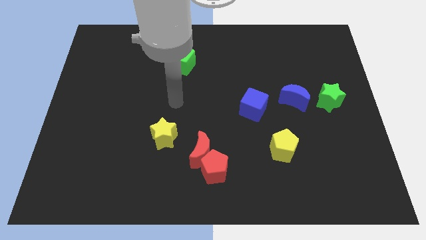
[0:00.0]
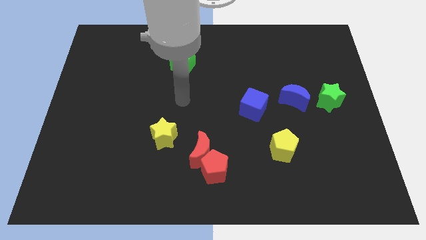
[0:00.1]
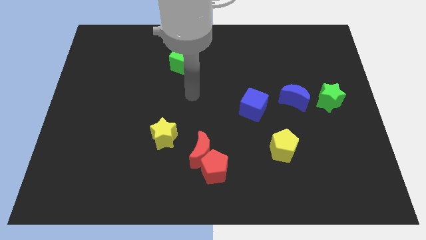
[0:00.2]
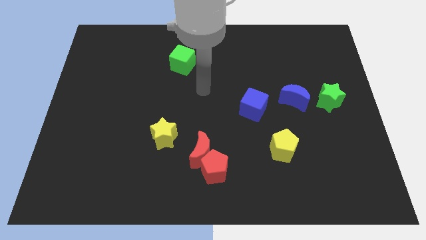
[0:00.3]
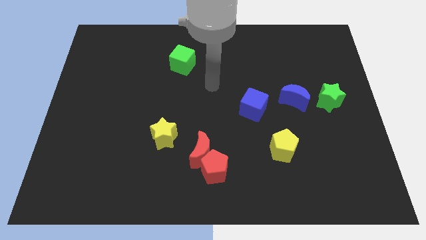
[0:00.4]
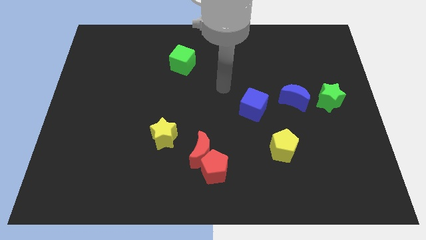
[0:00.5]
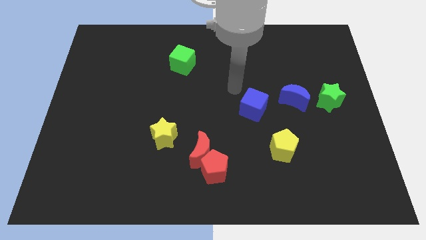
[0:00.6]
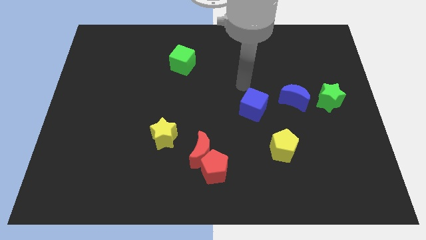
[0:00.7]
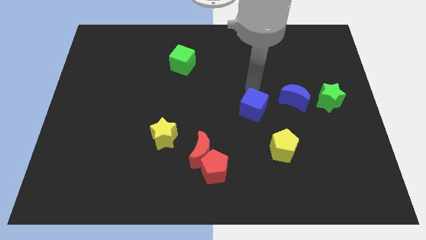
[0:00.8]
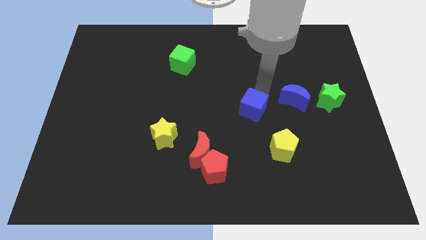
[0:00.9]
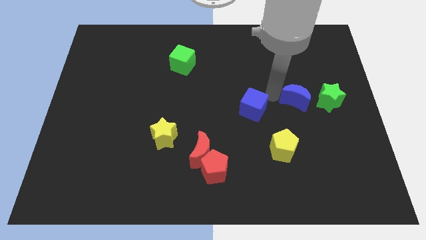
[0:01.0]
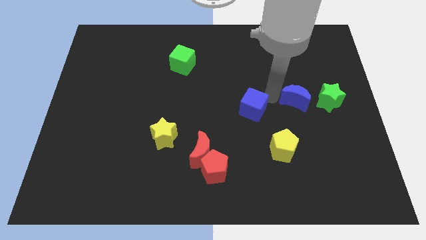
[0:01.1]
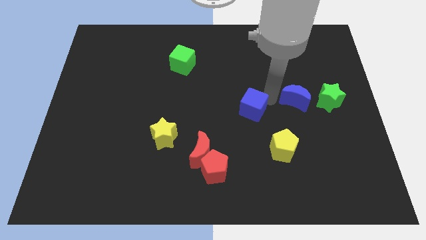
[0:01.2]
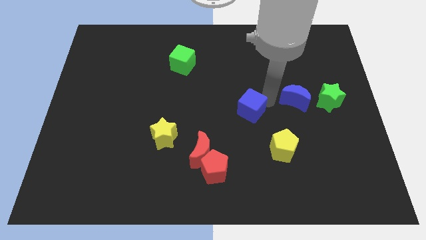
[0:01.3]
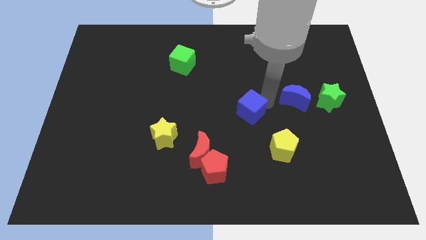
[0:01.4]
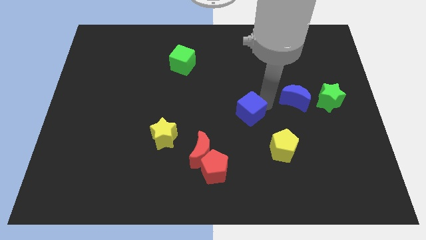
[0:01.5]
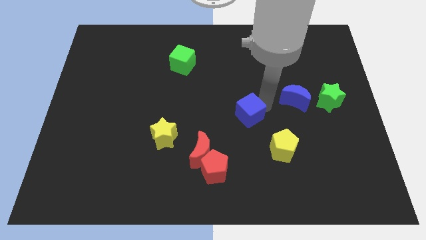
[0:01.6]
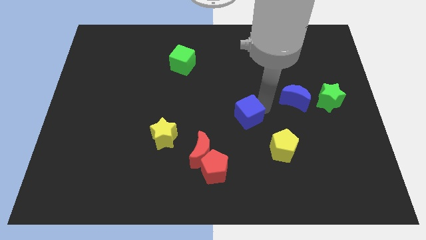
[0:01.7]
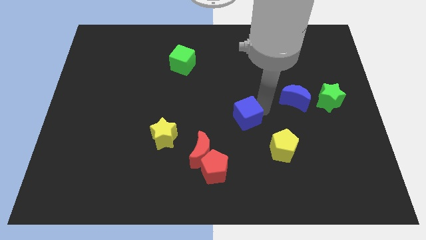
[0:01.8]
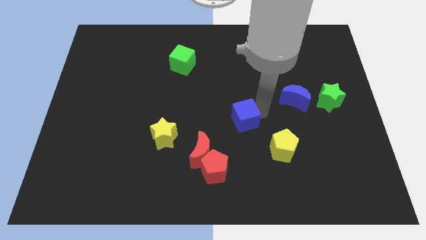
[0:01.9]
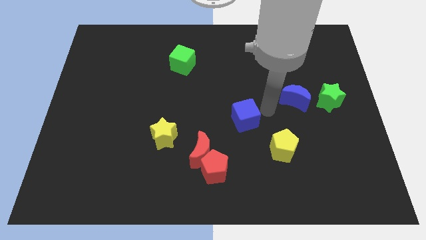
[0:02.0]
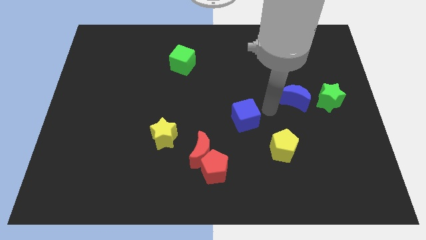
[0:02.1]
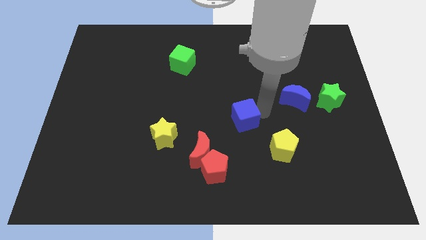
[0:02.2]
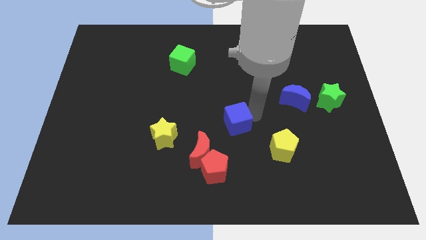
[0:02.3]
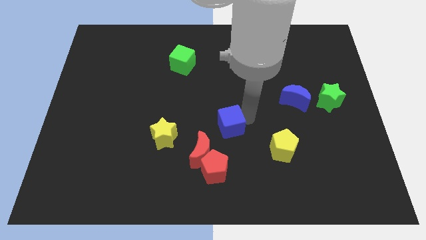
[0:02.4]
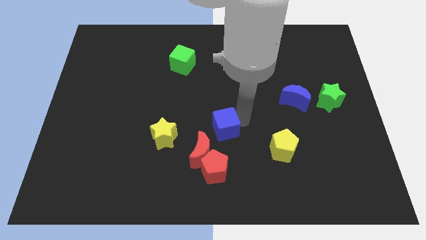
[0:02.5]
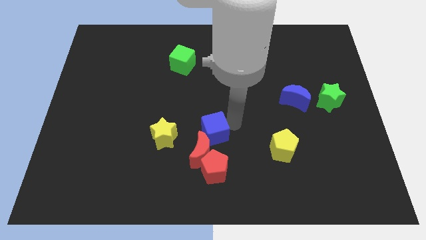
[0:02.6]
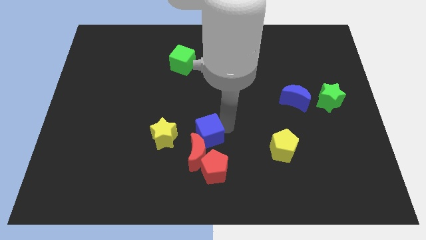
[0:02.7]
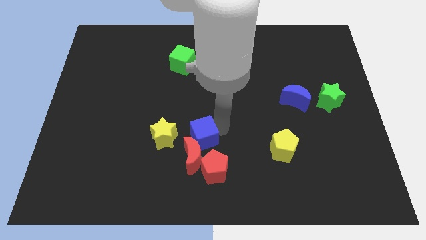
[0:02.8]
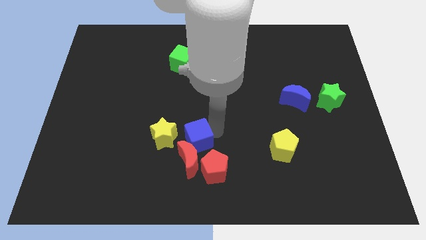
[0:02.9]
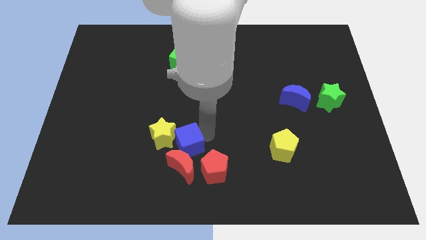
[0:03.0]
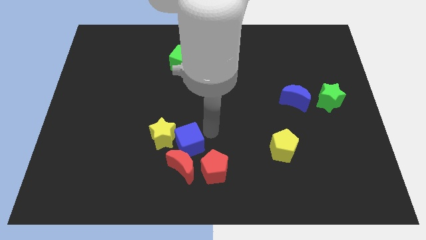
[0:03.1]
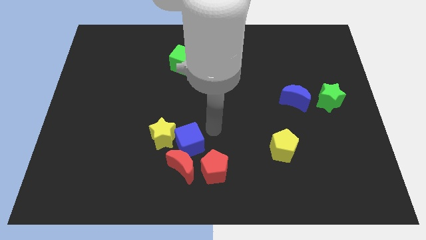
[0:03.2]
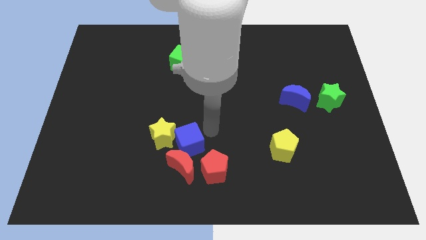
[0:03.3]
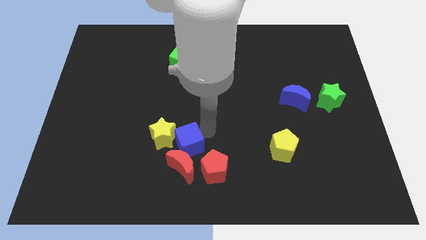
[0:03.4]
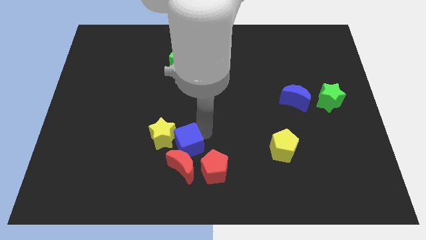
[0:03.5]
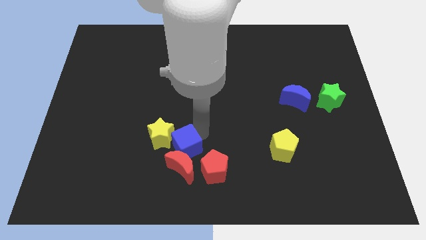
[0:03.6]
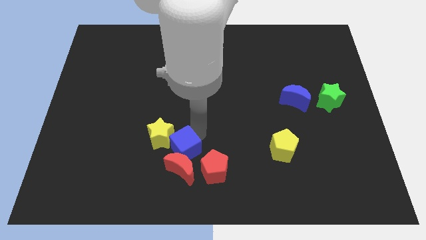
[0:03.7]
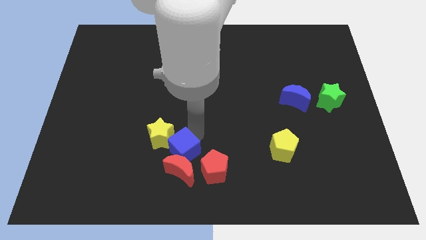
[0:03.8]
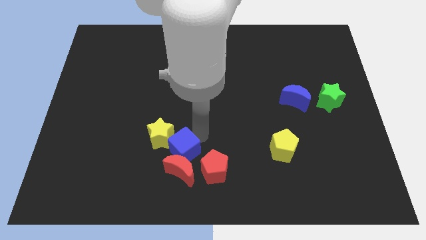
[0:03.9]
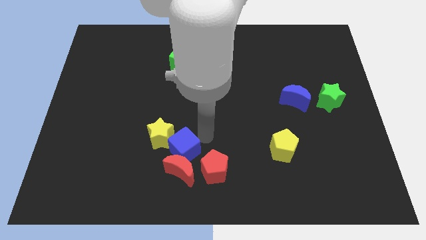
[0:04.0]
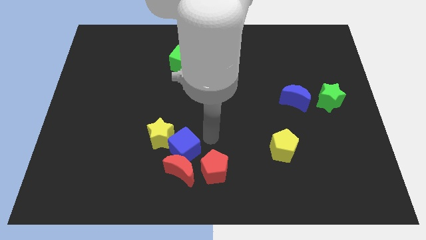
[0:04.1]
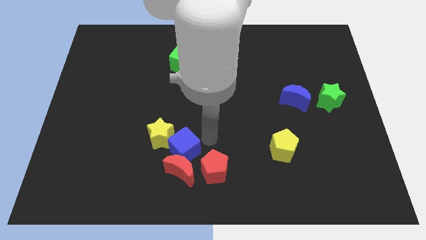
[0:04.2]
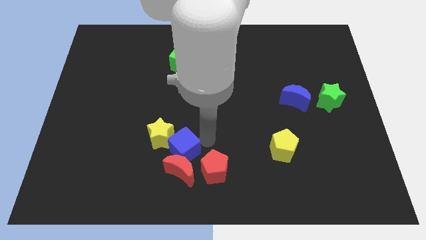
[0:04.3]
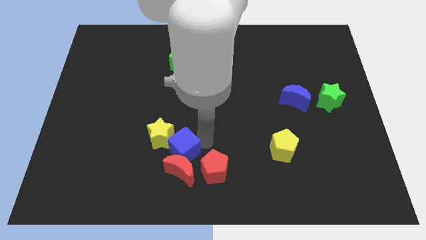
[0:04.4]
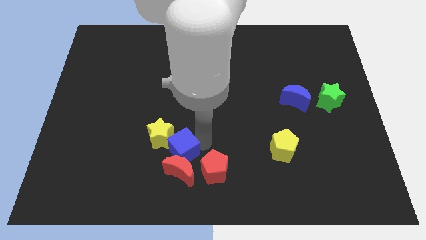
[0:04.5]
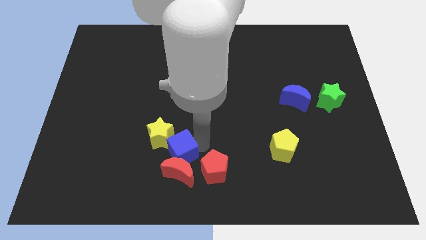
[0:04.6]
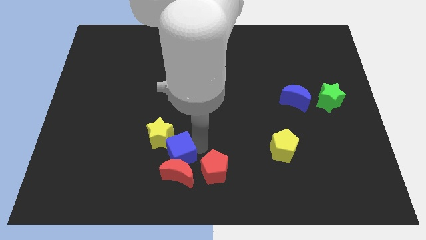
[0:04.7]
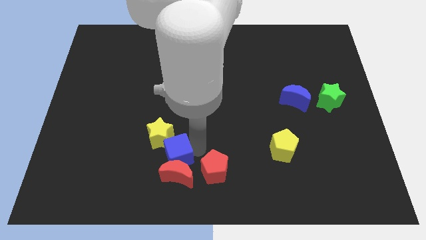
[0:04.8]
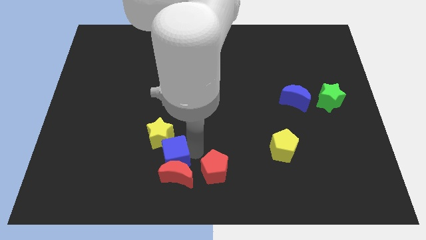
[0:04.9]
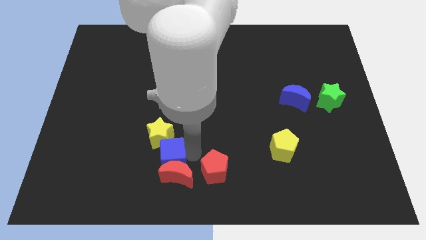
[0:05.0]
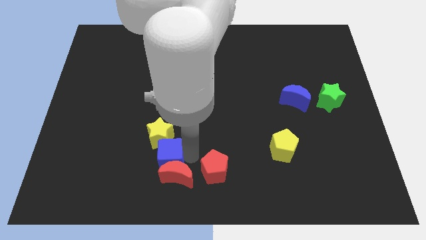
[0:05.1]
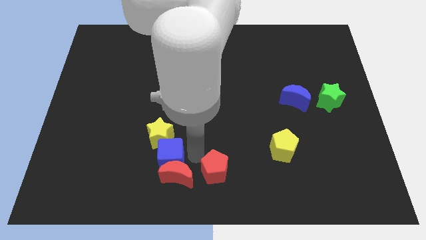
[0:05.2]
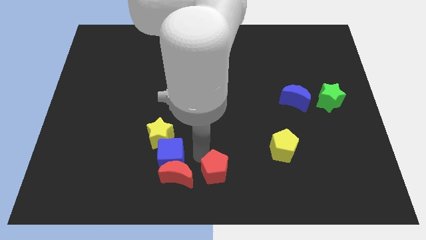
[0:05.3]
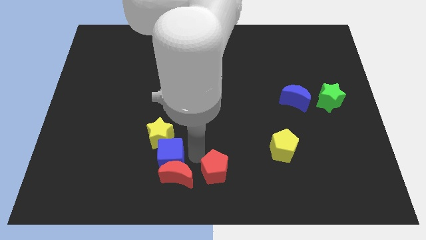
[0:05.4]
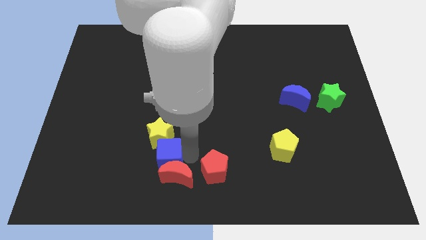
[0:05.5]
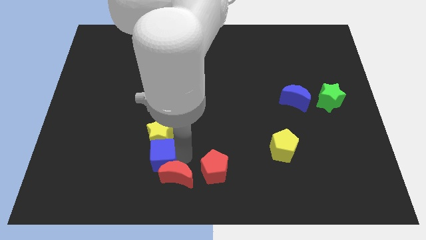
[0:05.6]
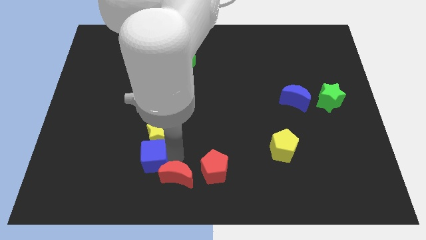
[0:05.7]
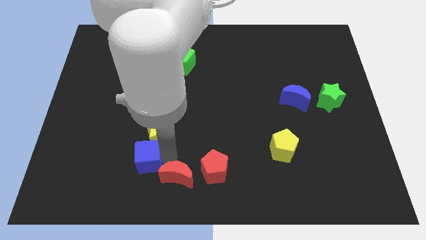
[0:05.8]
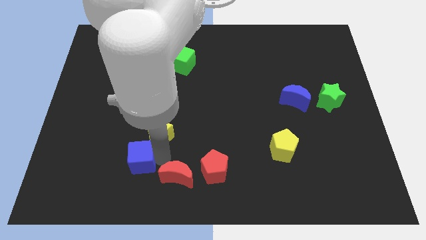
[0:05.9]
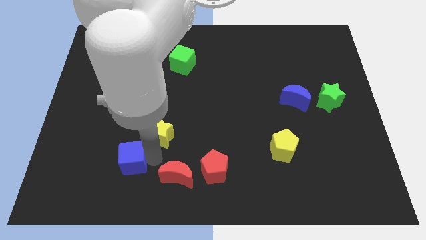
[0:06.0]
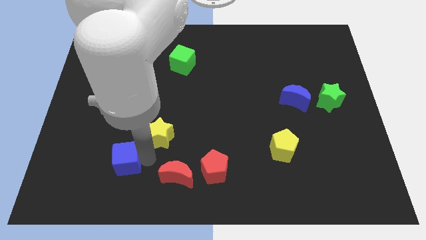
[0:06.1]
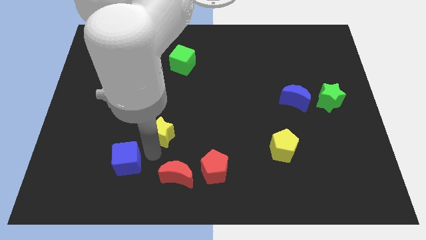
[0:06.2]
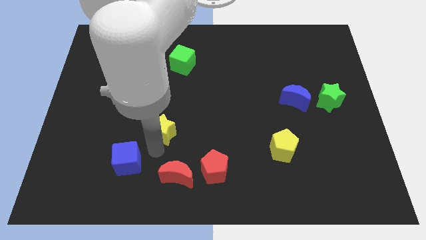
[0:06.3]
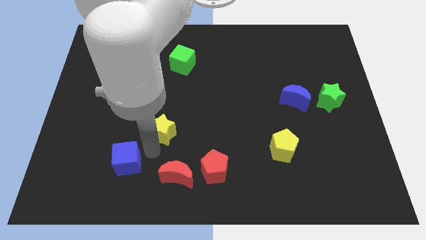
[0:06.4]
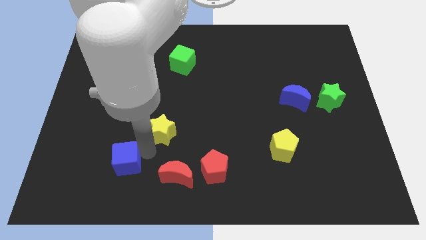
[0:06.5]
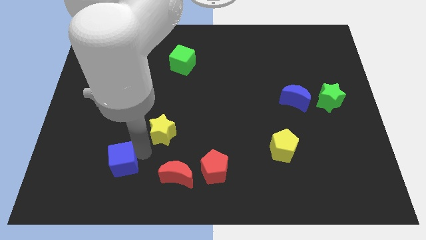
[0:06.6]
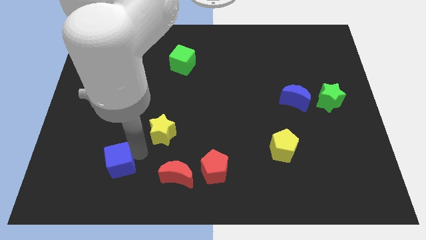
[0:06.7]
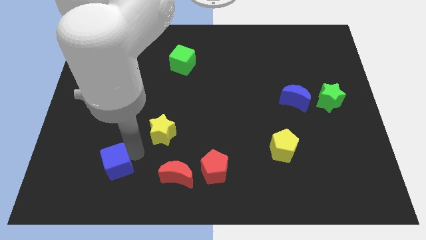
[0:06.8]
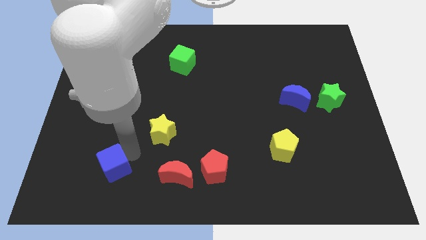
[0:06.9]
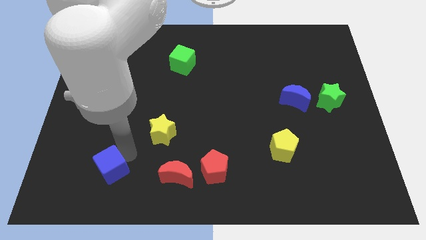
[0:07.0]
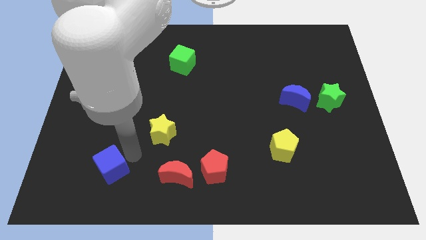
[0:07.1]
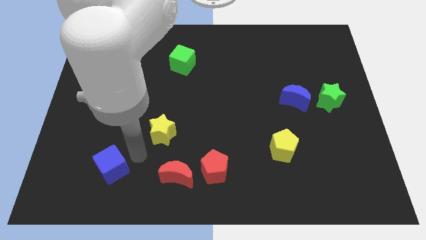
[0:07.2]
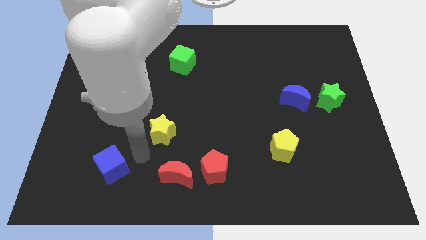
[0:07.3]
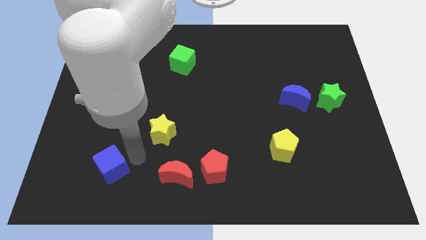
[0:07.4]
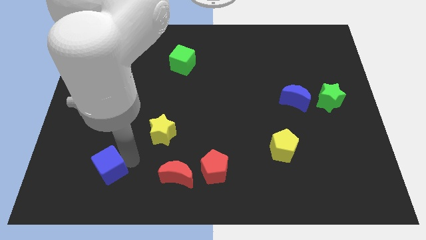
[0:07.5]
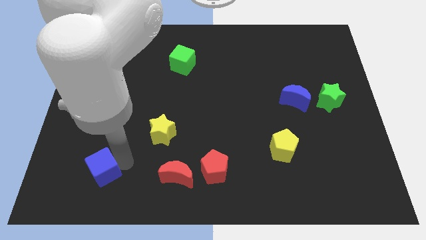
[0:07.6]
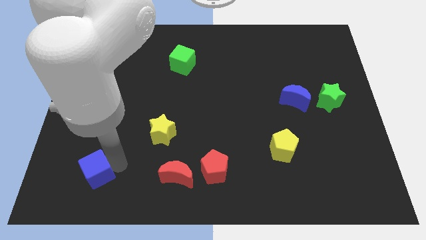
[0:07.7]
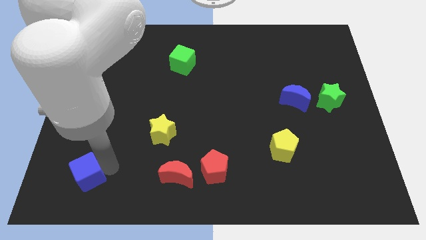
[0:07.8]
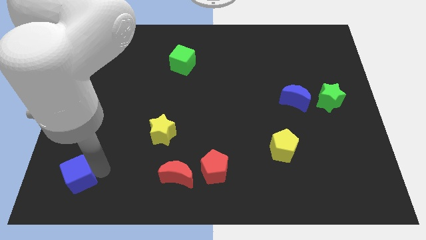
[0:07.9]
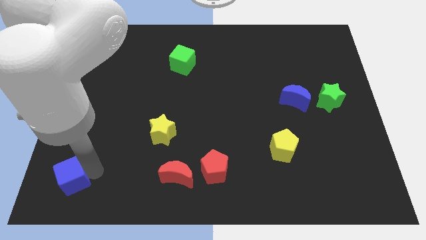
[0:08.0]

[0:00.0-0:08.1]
slide the blue cube to the bottom left of the board
